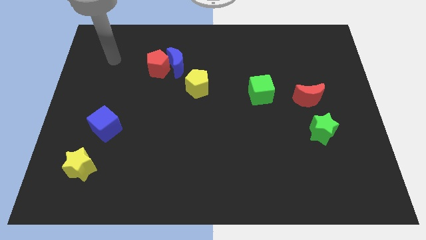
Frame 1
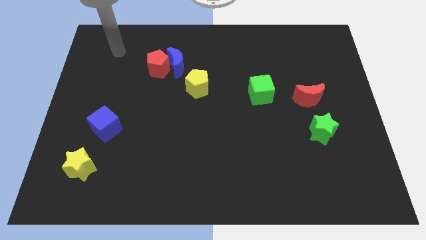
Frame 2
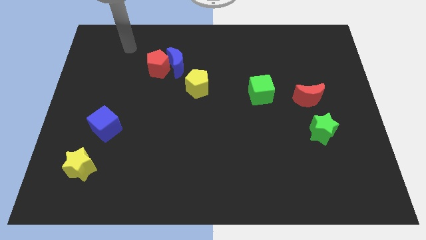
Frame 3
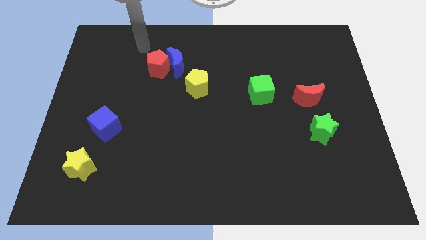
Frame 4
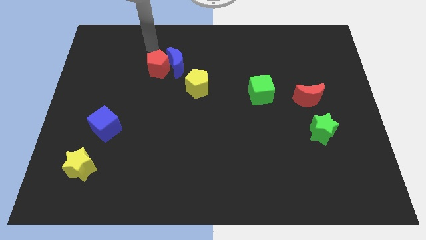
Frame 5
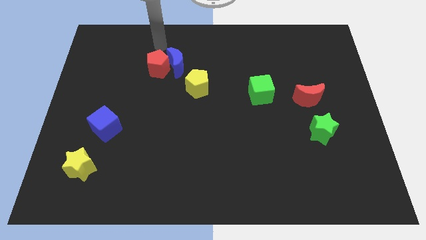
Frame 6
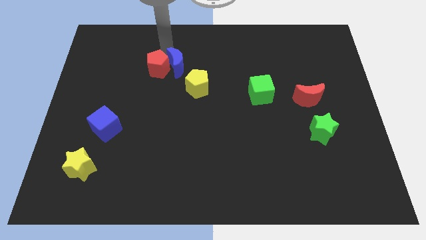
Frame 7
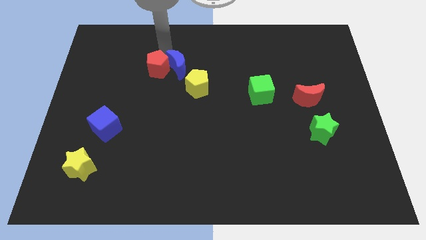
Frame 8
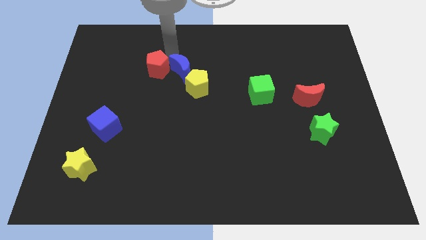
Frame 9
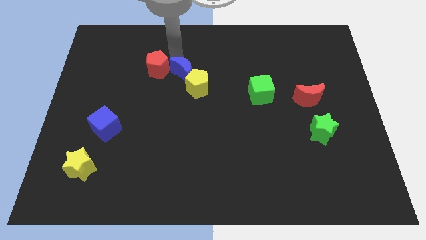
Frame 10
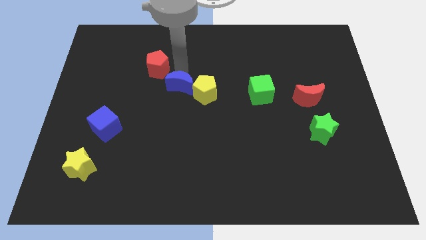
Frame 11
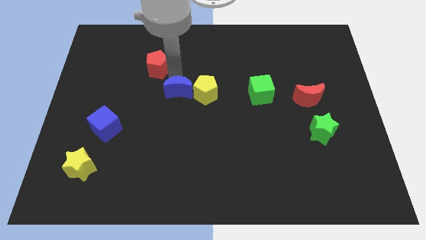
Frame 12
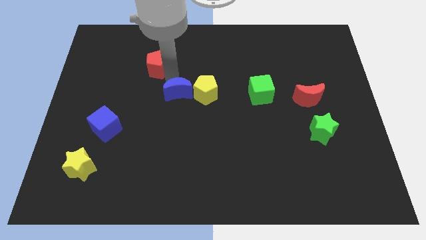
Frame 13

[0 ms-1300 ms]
pull the red pentagon apart from the blue moon

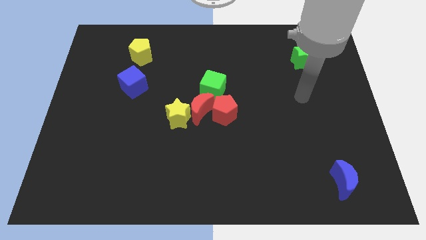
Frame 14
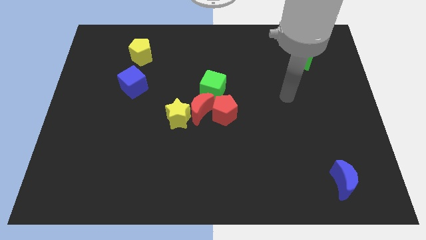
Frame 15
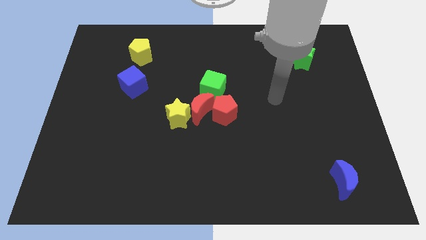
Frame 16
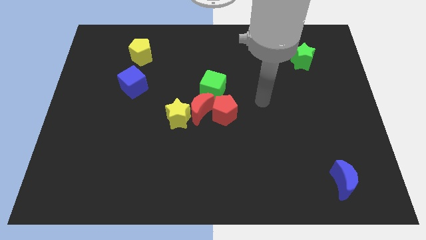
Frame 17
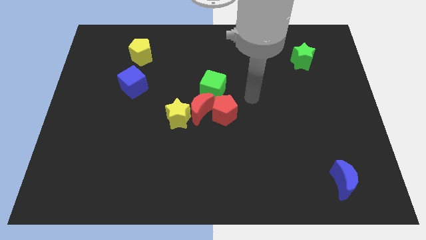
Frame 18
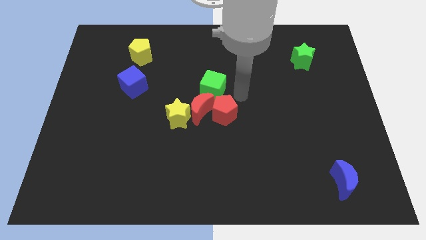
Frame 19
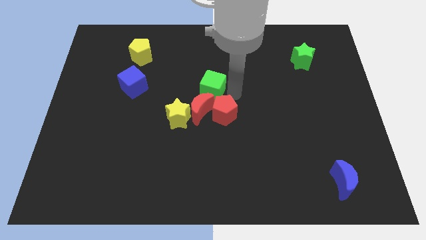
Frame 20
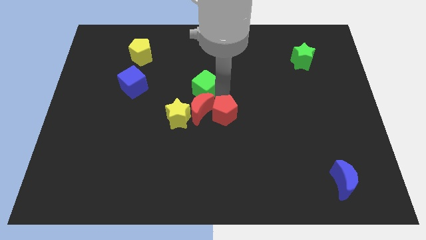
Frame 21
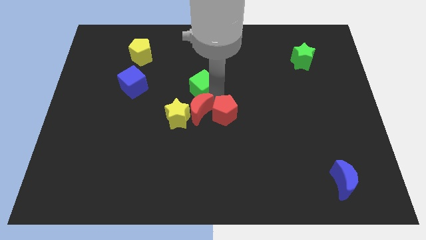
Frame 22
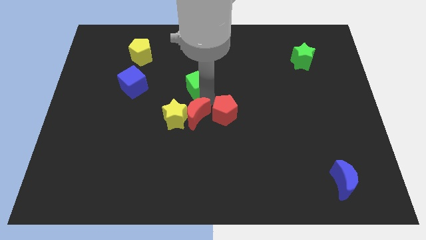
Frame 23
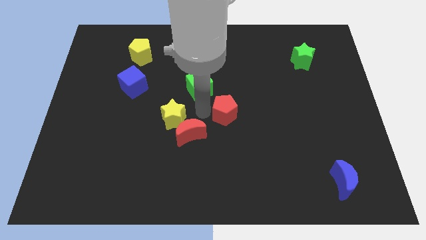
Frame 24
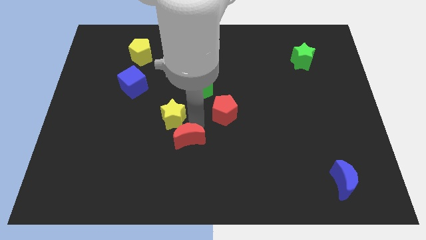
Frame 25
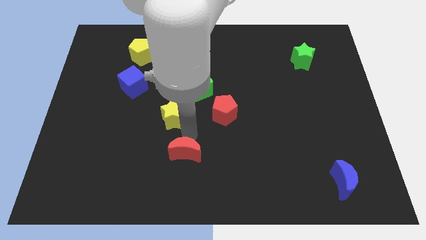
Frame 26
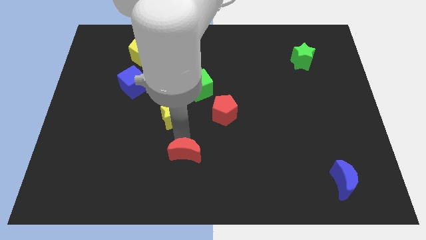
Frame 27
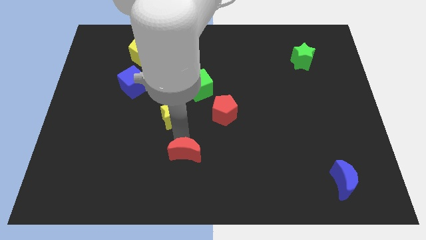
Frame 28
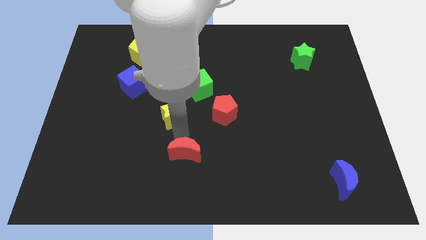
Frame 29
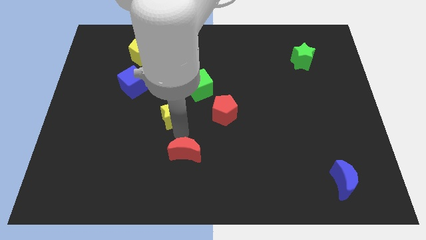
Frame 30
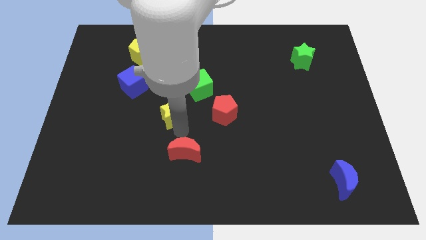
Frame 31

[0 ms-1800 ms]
move the yellow star away from the red moon

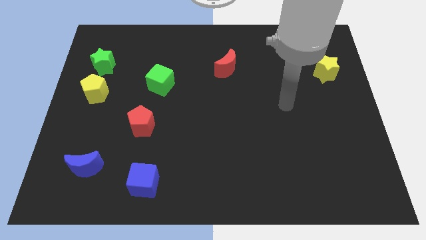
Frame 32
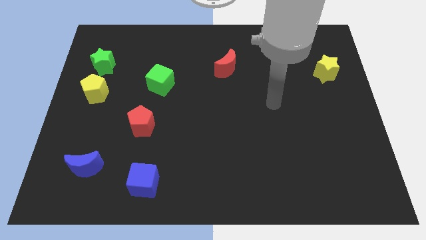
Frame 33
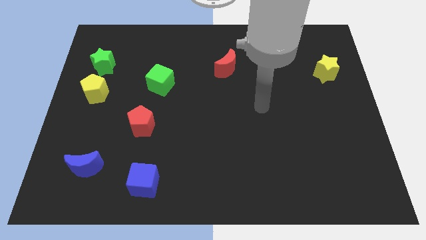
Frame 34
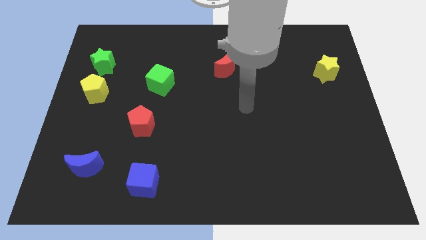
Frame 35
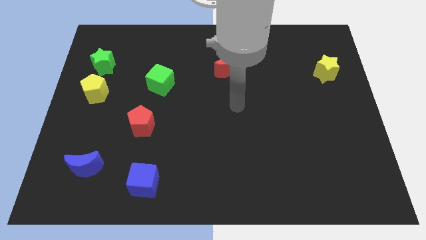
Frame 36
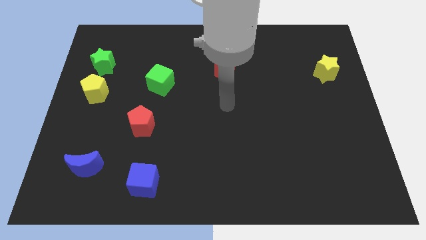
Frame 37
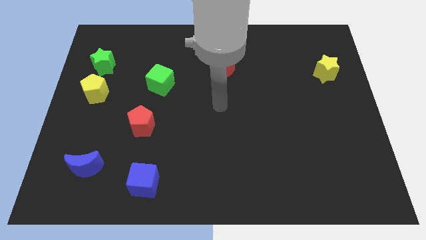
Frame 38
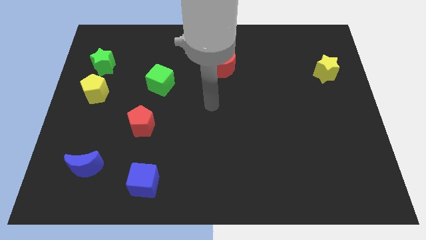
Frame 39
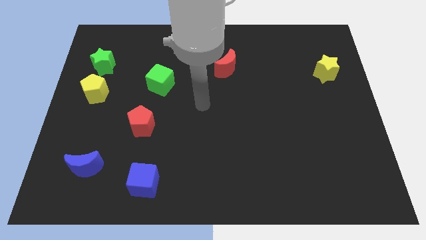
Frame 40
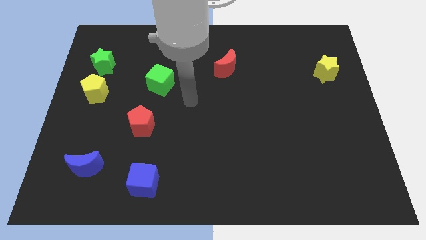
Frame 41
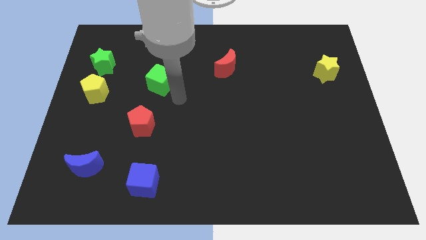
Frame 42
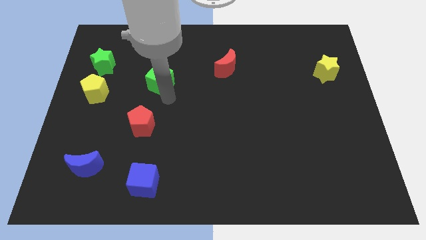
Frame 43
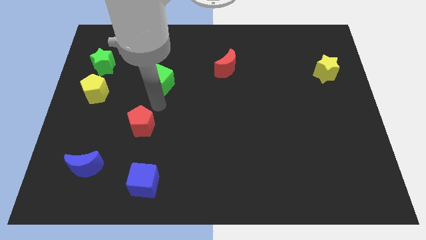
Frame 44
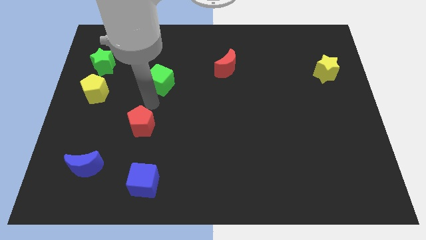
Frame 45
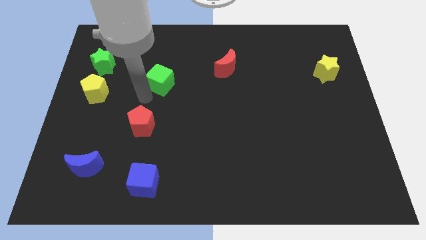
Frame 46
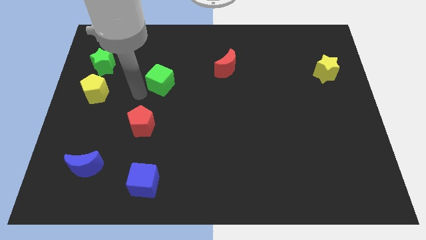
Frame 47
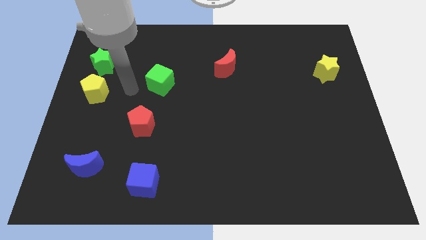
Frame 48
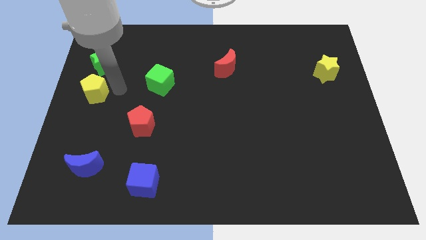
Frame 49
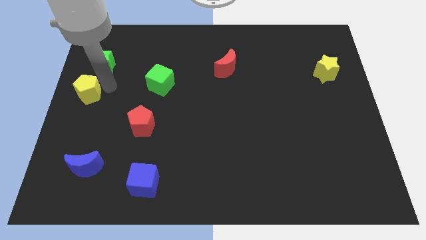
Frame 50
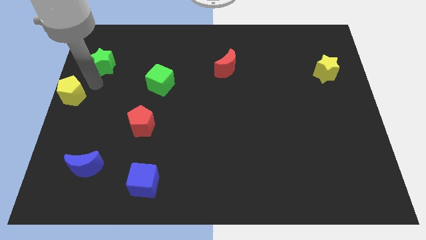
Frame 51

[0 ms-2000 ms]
separate the green star from the yellow pentagon

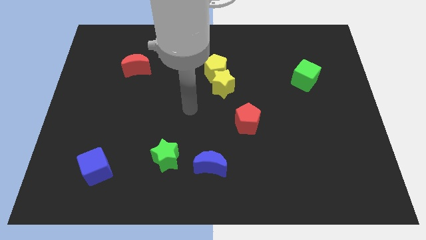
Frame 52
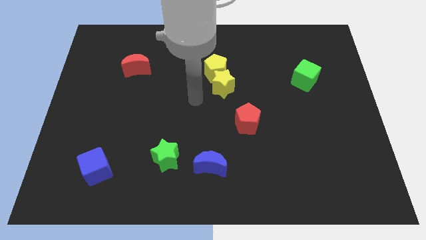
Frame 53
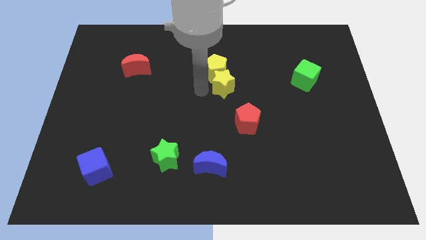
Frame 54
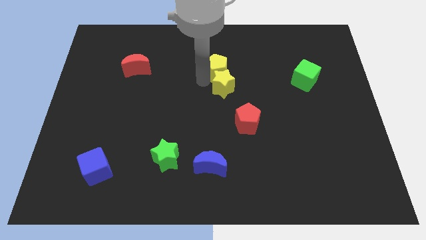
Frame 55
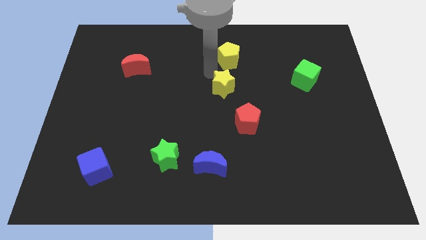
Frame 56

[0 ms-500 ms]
move the yellow star away from the yellow pentagon

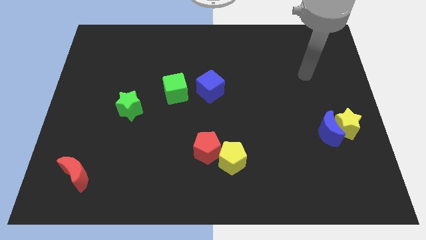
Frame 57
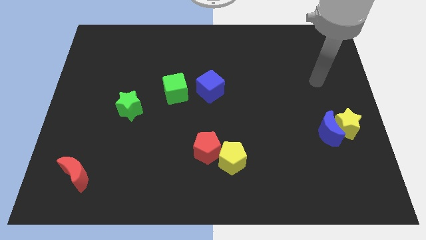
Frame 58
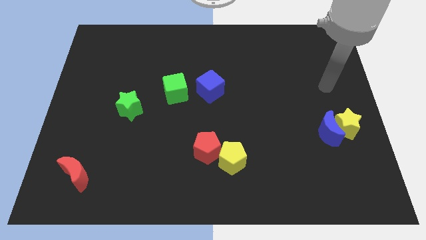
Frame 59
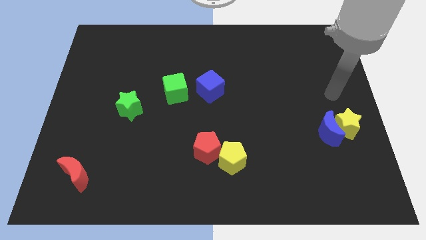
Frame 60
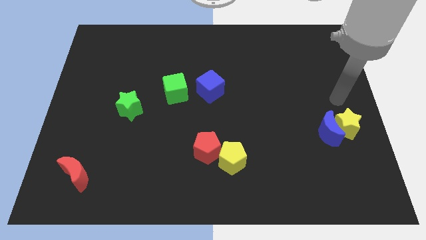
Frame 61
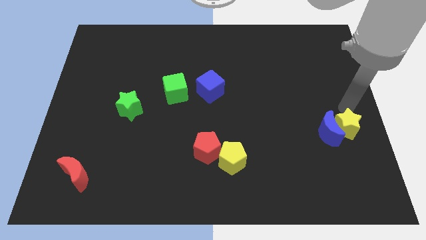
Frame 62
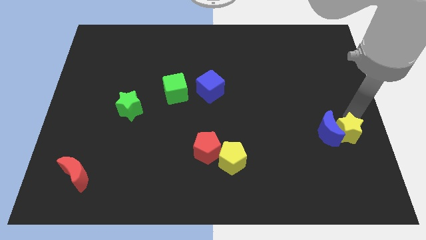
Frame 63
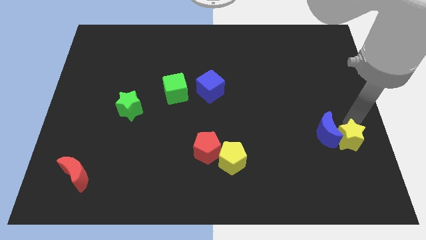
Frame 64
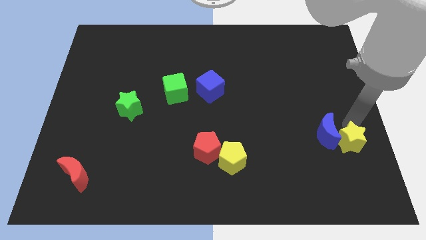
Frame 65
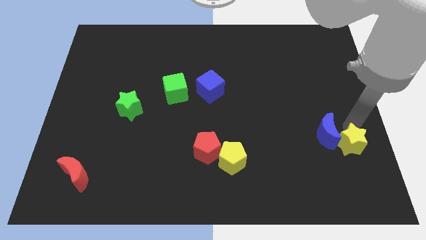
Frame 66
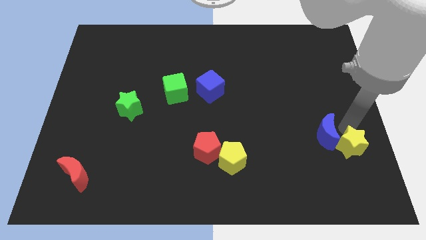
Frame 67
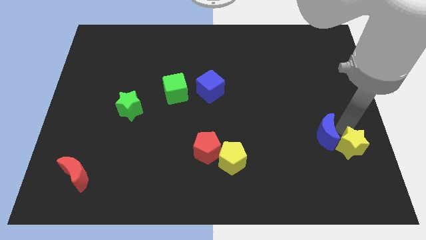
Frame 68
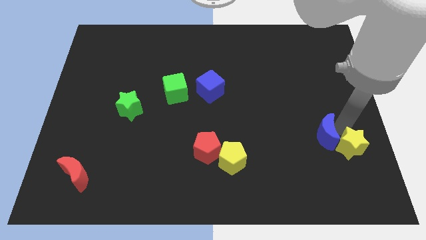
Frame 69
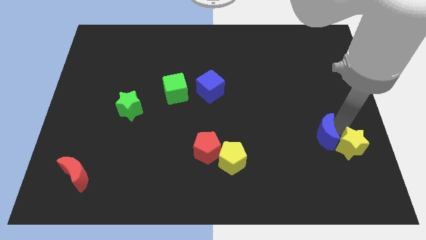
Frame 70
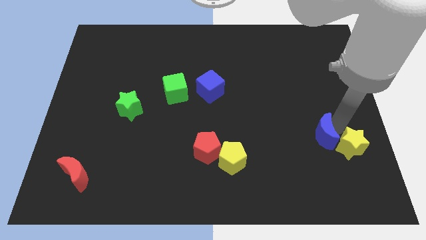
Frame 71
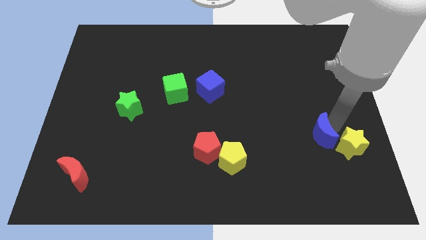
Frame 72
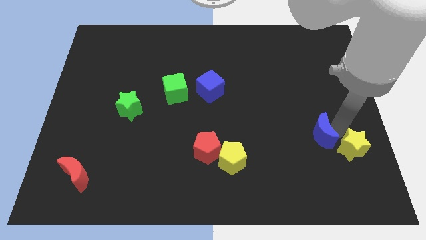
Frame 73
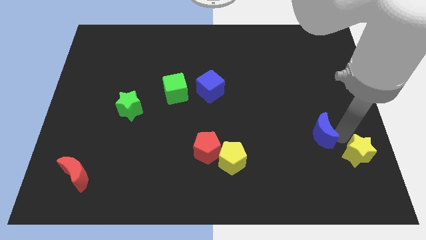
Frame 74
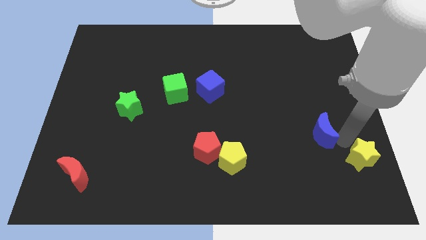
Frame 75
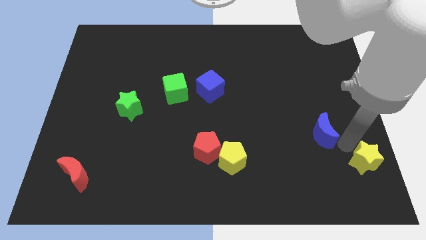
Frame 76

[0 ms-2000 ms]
separate the blue moon from the yellow star

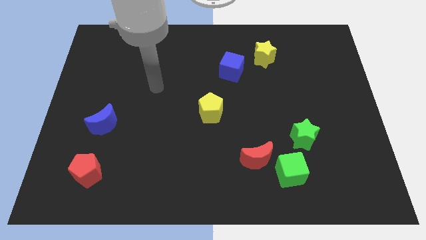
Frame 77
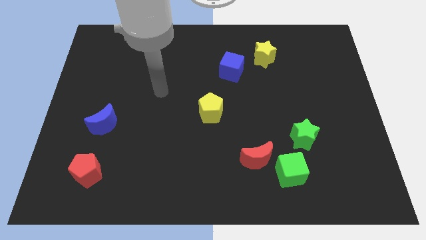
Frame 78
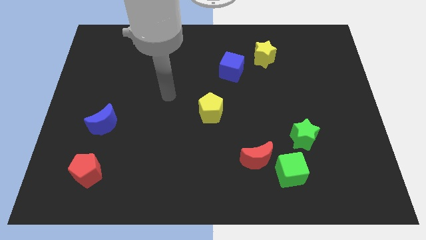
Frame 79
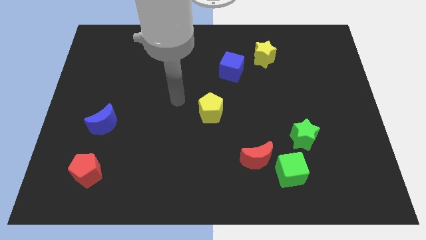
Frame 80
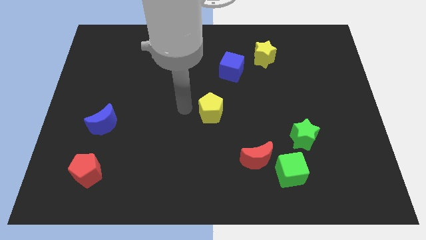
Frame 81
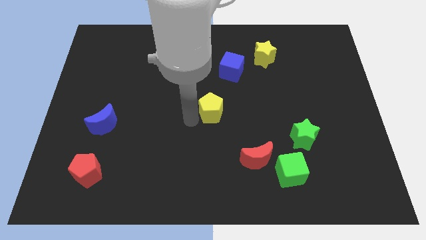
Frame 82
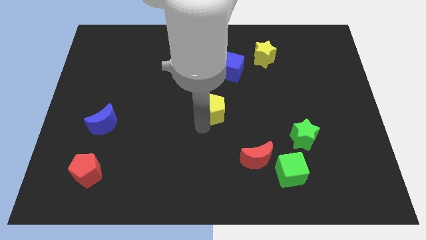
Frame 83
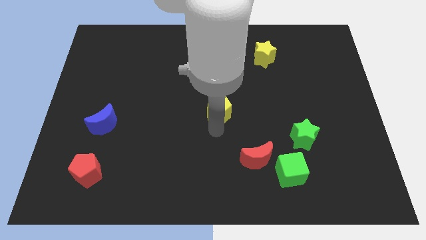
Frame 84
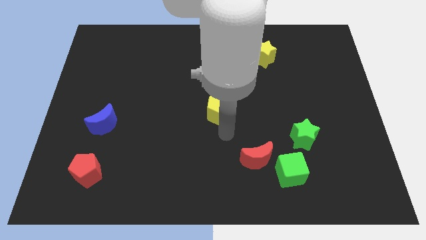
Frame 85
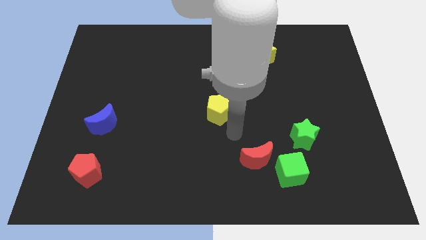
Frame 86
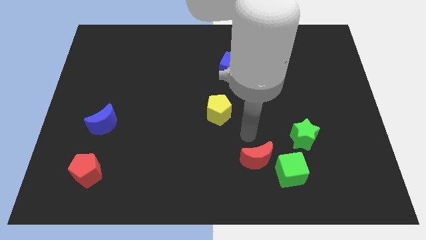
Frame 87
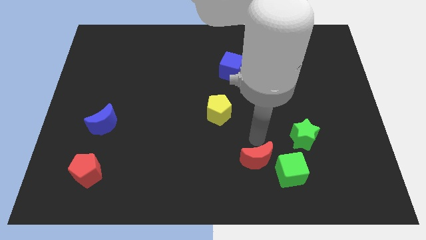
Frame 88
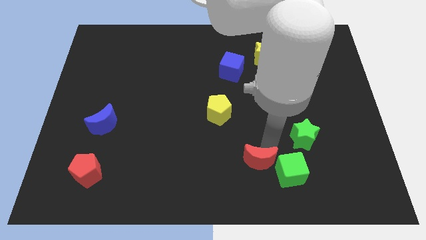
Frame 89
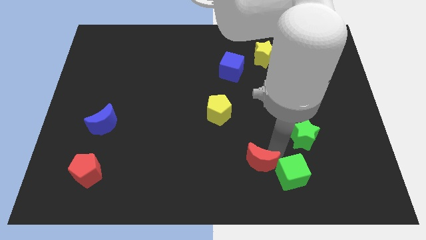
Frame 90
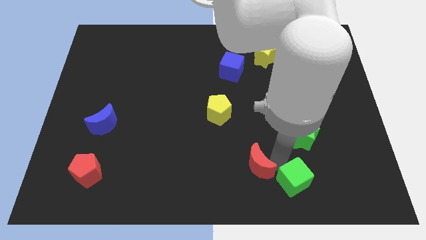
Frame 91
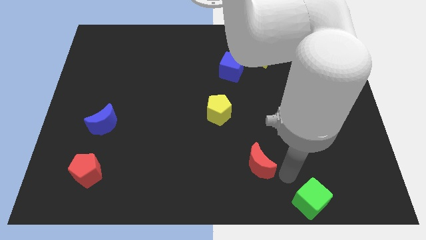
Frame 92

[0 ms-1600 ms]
pull the red moon apart from the green cube
